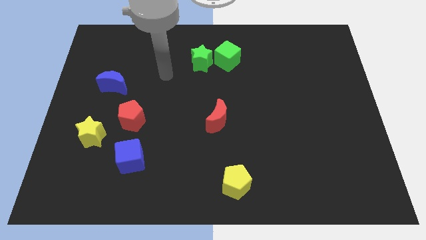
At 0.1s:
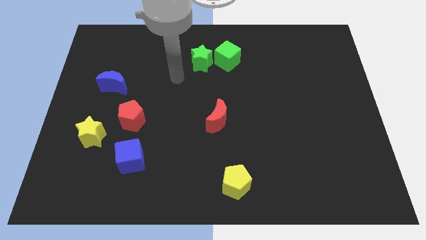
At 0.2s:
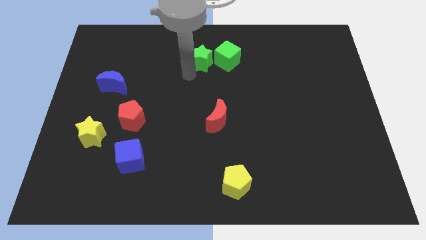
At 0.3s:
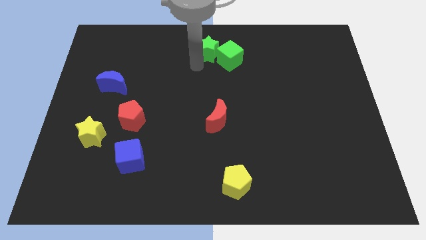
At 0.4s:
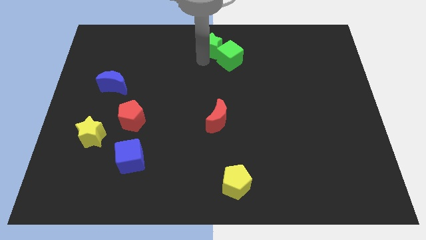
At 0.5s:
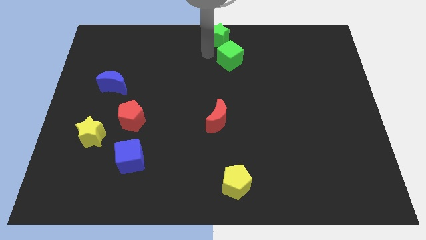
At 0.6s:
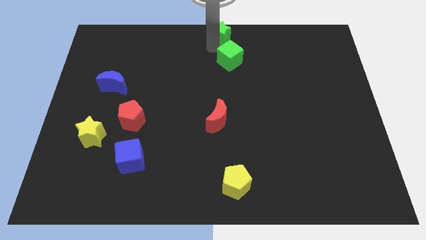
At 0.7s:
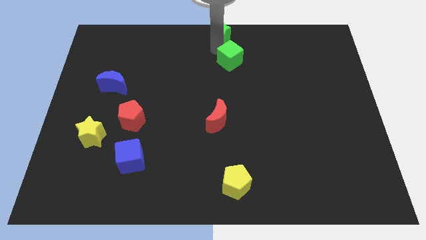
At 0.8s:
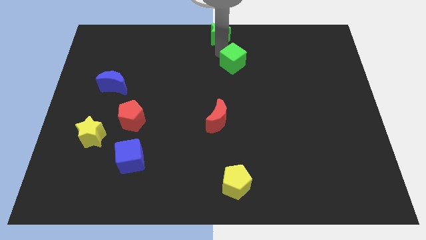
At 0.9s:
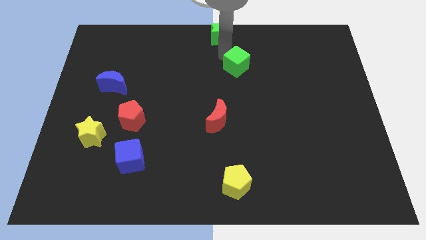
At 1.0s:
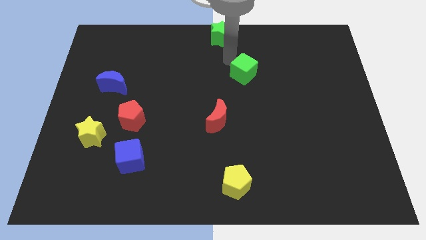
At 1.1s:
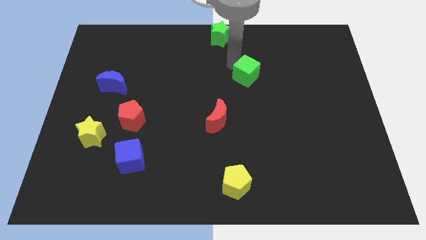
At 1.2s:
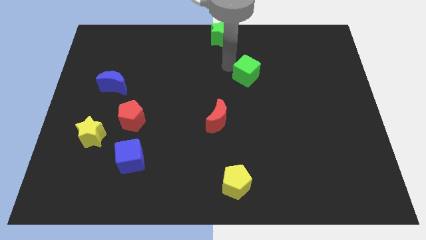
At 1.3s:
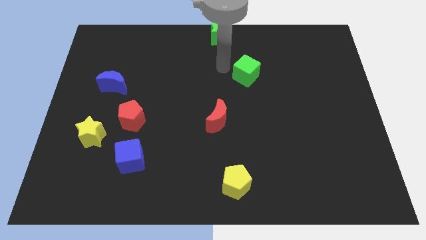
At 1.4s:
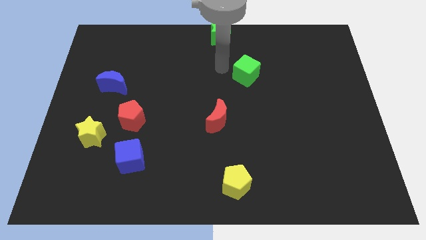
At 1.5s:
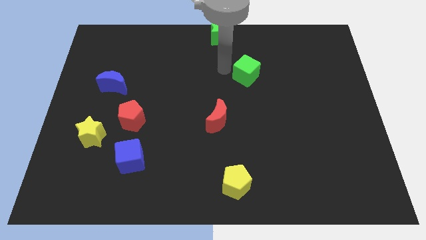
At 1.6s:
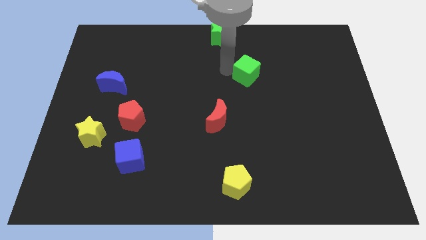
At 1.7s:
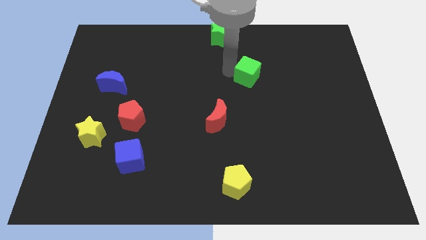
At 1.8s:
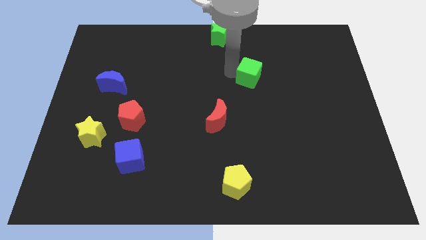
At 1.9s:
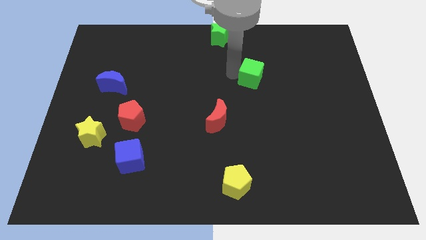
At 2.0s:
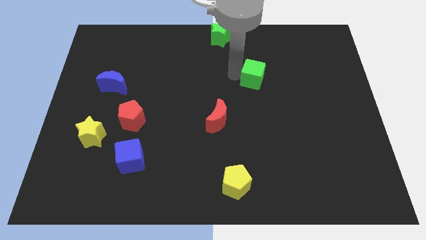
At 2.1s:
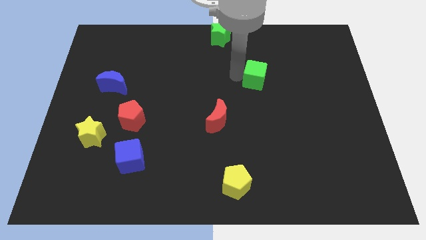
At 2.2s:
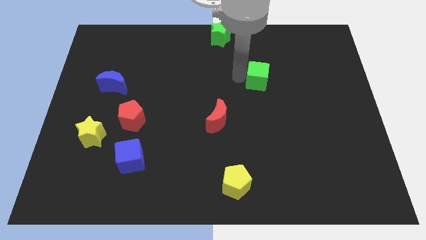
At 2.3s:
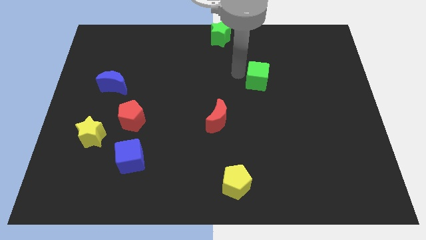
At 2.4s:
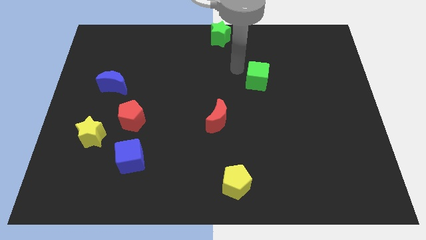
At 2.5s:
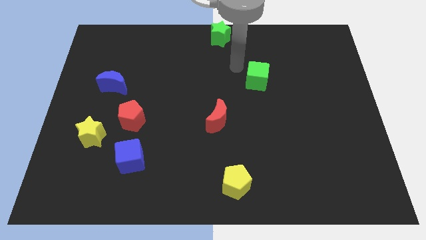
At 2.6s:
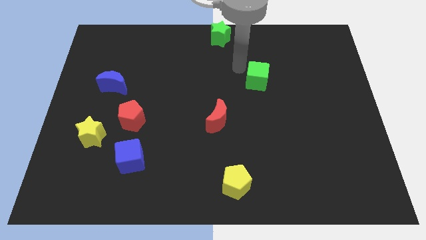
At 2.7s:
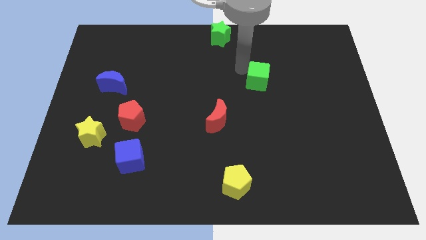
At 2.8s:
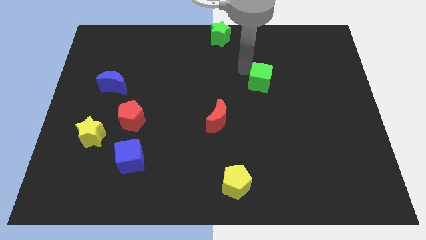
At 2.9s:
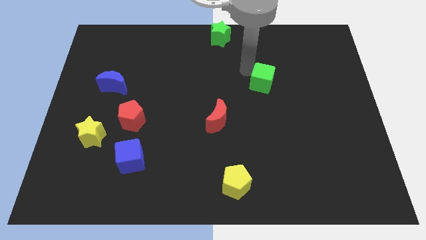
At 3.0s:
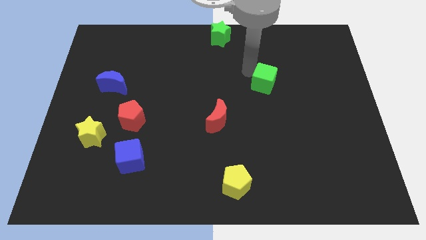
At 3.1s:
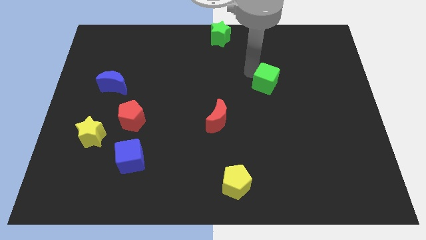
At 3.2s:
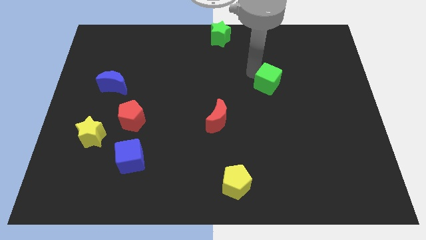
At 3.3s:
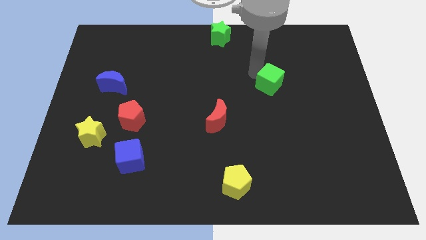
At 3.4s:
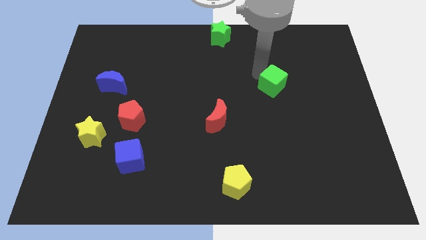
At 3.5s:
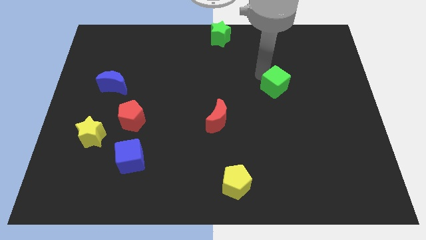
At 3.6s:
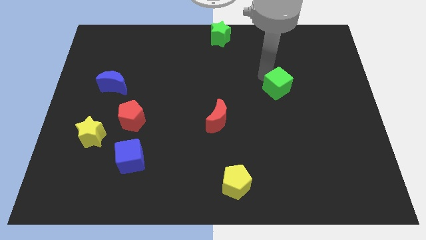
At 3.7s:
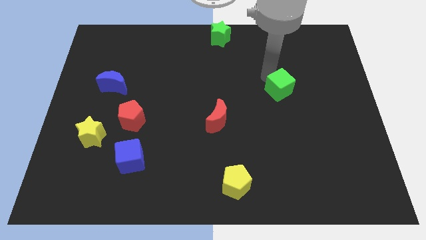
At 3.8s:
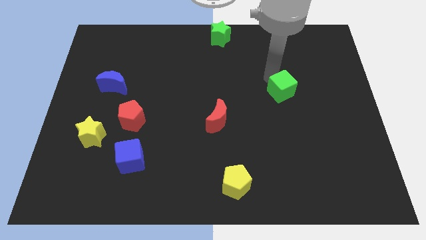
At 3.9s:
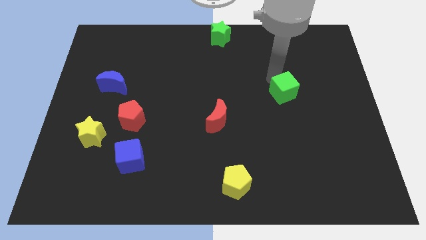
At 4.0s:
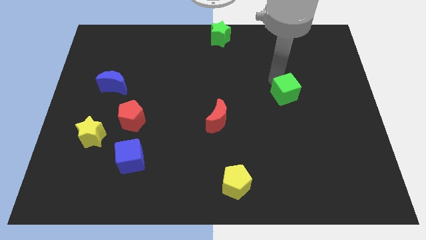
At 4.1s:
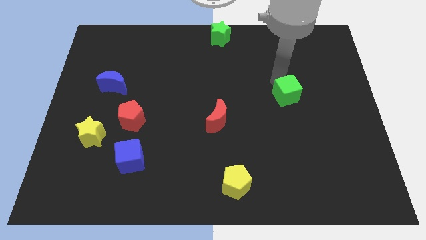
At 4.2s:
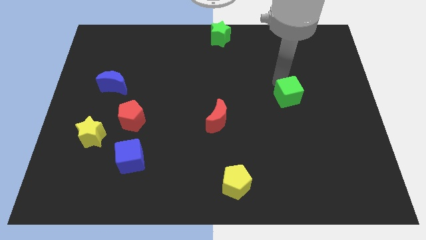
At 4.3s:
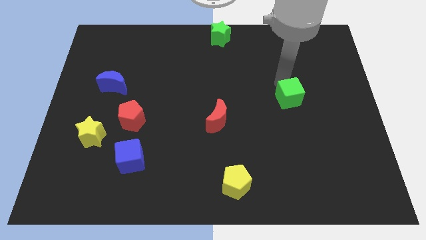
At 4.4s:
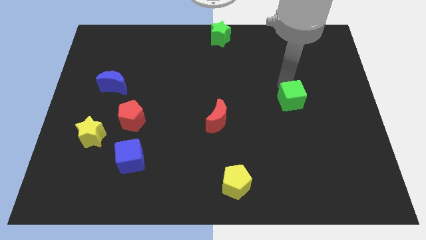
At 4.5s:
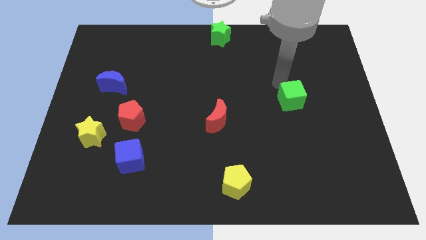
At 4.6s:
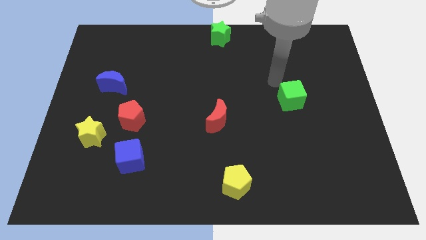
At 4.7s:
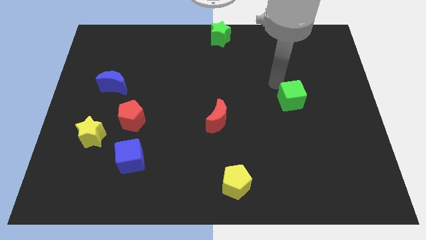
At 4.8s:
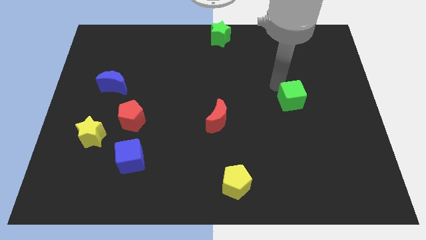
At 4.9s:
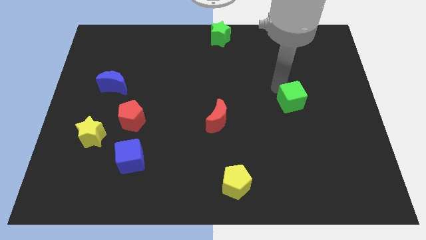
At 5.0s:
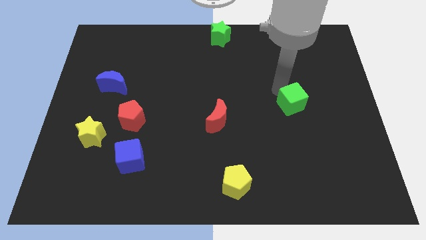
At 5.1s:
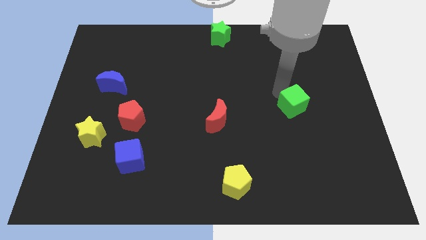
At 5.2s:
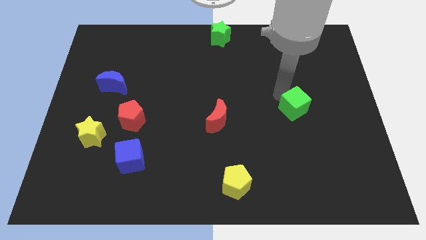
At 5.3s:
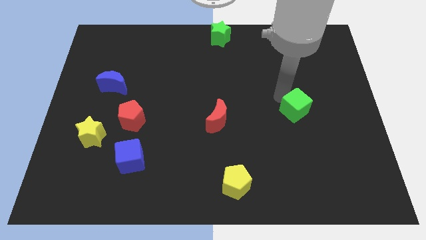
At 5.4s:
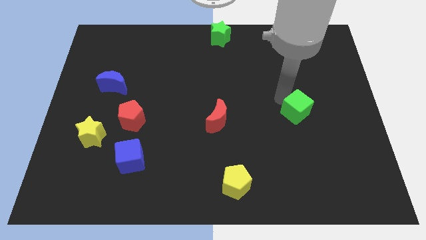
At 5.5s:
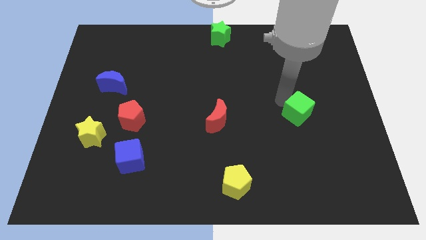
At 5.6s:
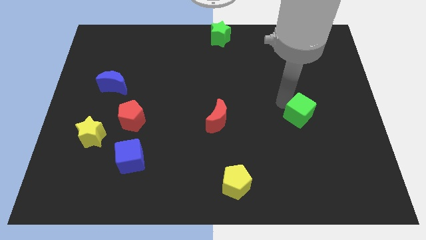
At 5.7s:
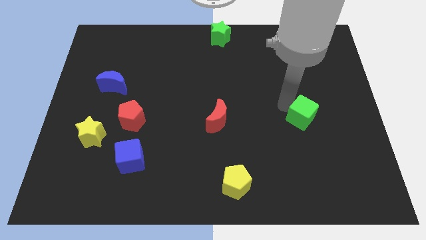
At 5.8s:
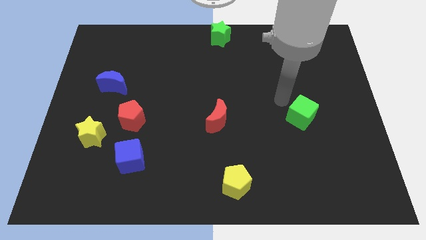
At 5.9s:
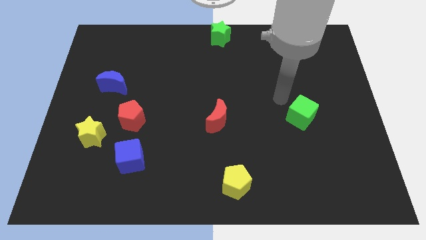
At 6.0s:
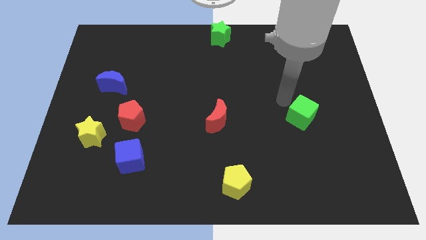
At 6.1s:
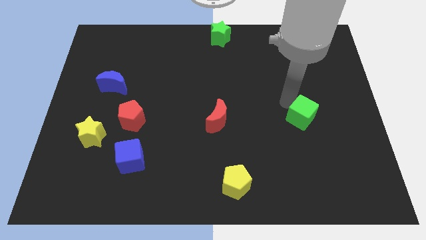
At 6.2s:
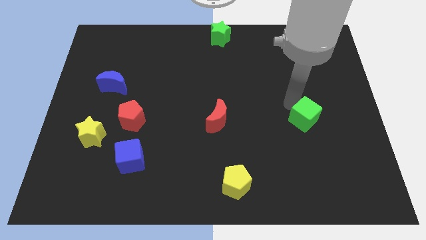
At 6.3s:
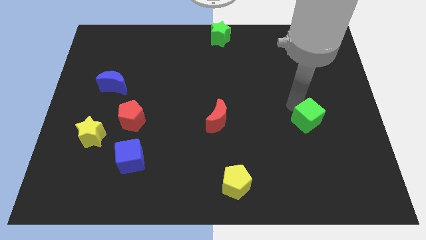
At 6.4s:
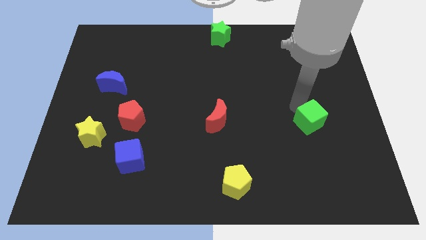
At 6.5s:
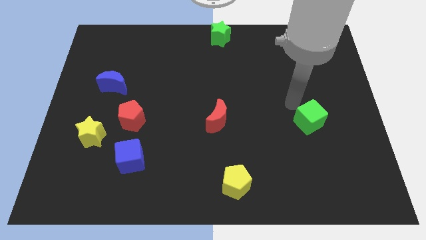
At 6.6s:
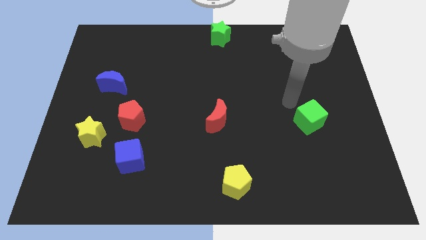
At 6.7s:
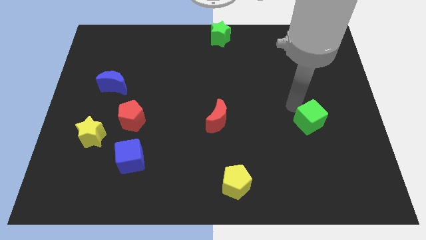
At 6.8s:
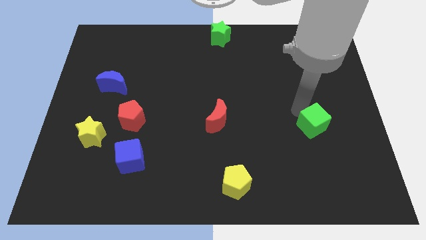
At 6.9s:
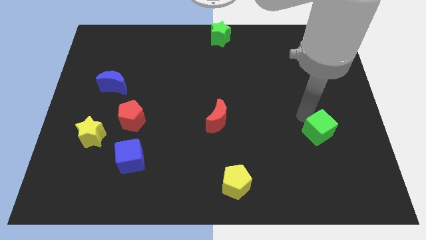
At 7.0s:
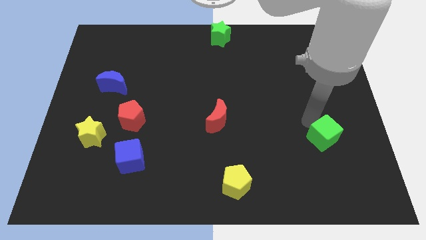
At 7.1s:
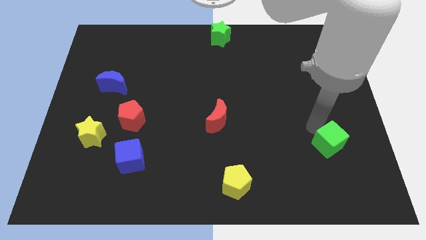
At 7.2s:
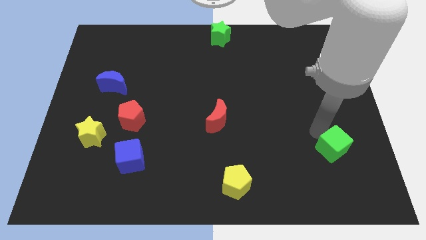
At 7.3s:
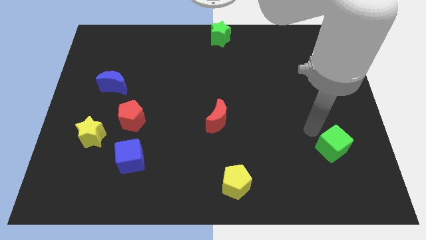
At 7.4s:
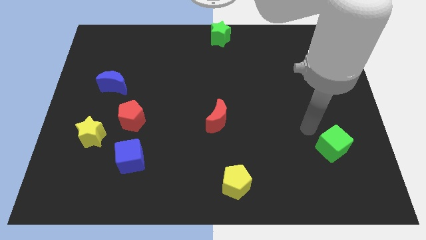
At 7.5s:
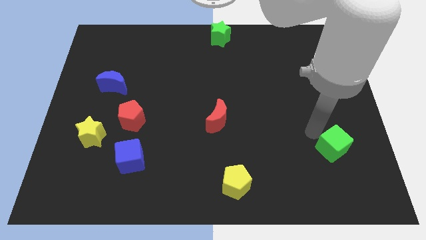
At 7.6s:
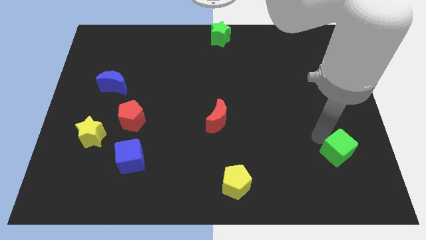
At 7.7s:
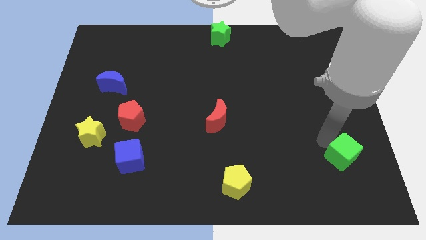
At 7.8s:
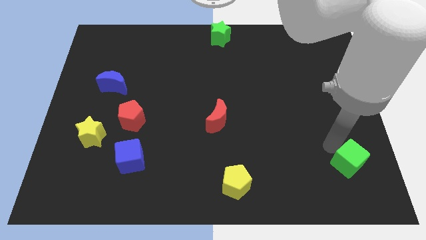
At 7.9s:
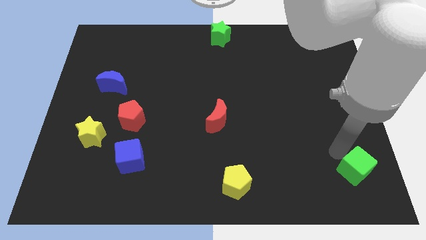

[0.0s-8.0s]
move the green cube to the lower right corner

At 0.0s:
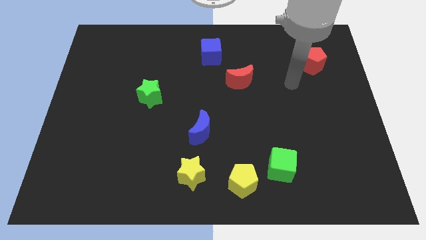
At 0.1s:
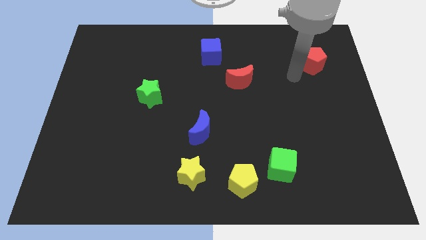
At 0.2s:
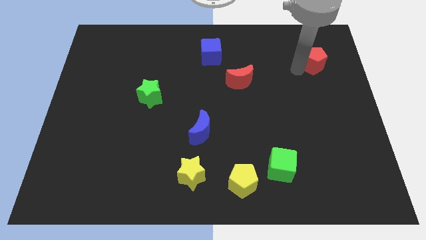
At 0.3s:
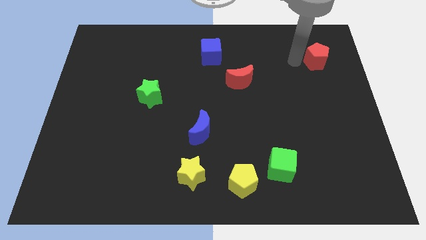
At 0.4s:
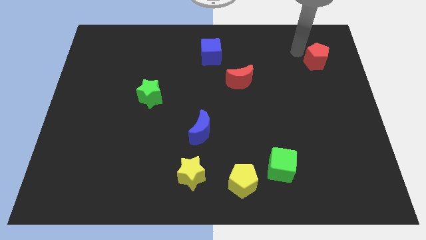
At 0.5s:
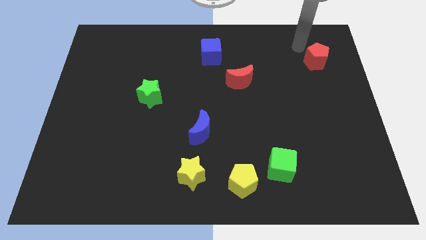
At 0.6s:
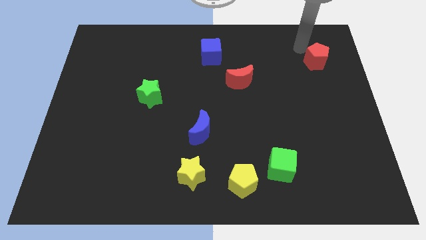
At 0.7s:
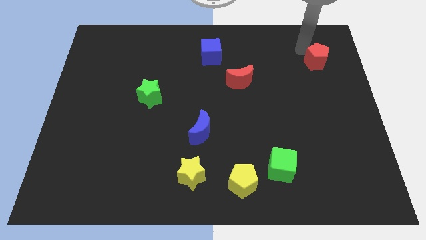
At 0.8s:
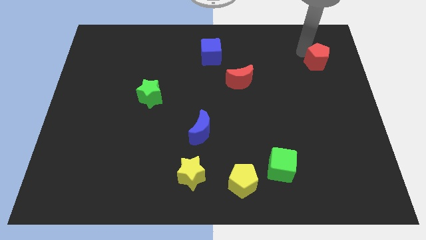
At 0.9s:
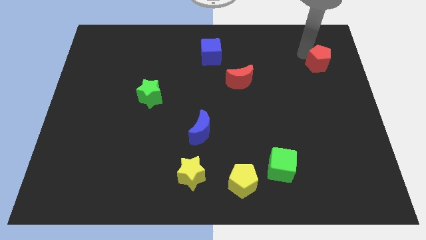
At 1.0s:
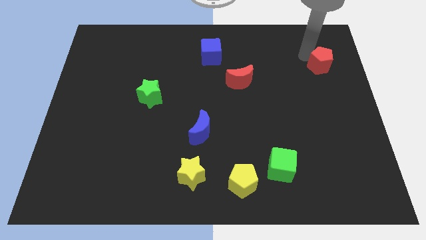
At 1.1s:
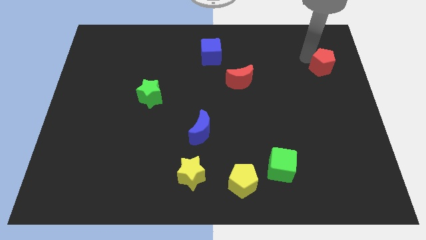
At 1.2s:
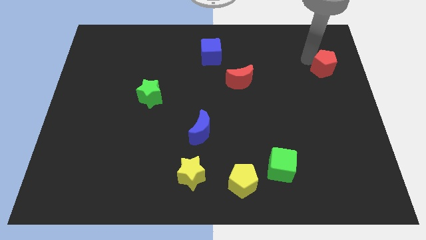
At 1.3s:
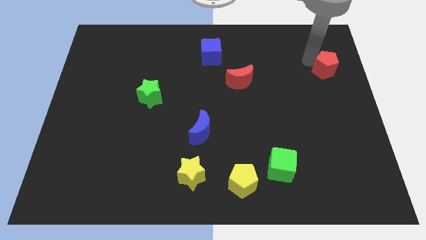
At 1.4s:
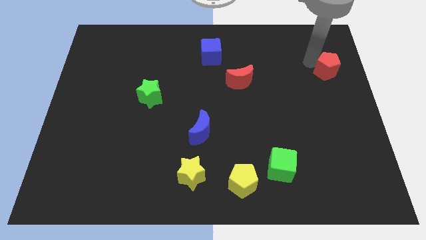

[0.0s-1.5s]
push the red pentagon to the center right
